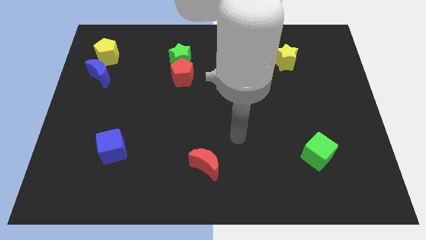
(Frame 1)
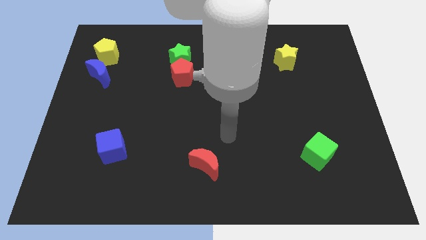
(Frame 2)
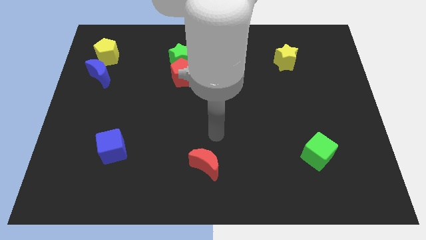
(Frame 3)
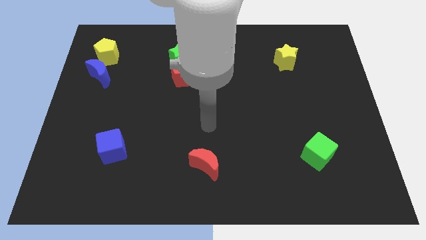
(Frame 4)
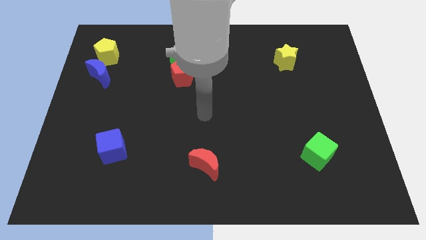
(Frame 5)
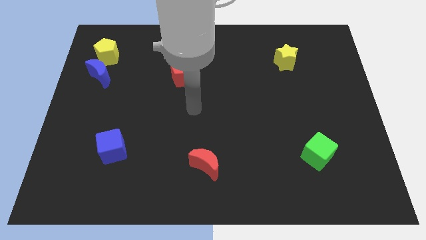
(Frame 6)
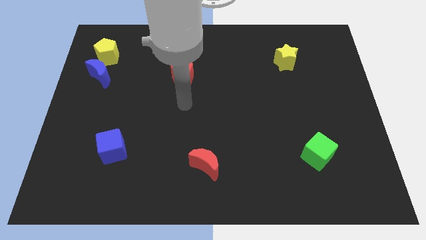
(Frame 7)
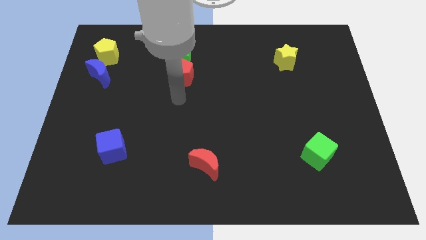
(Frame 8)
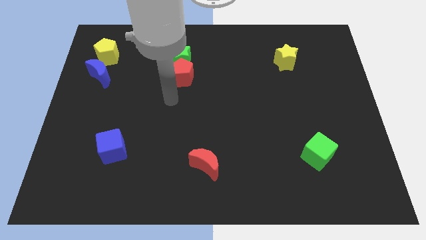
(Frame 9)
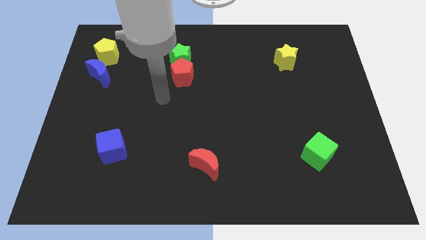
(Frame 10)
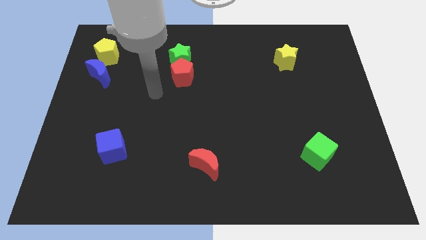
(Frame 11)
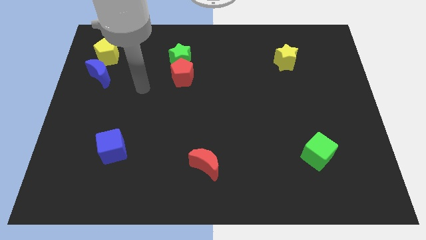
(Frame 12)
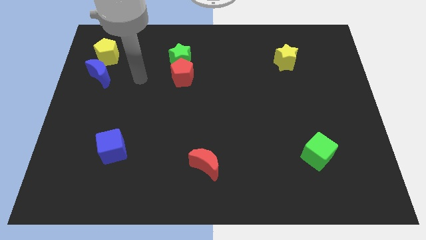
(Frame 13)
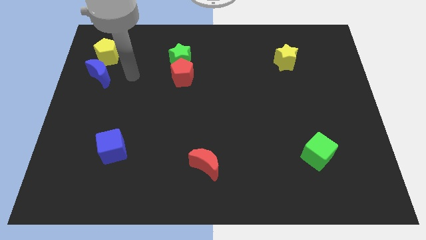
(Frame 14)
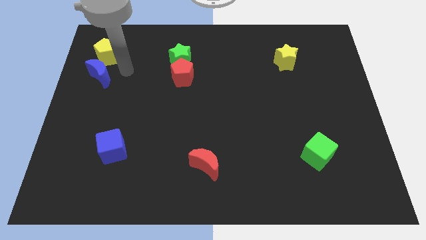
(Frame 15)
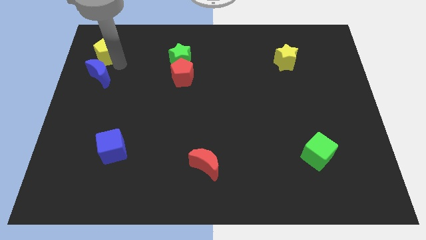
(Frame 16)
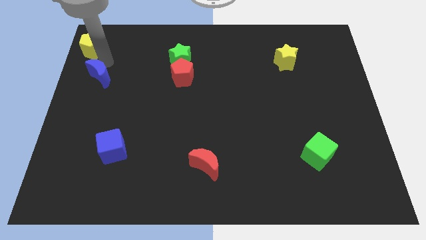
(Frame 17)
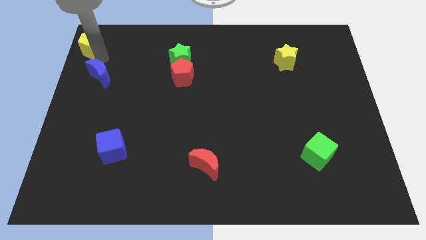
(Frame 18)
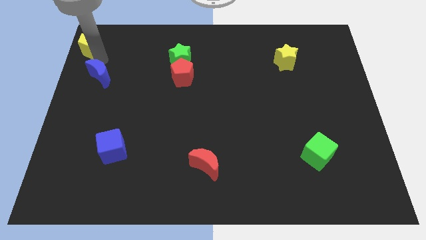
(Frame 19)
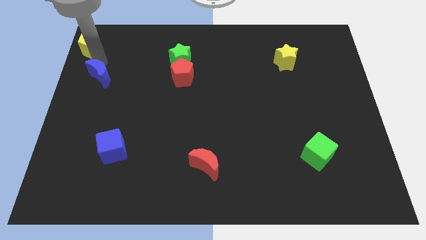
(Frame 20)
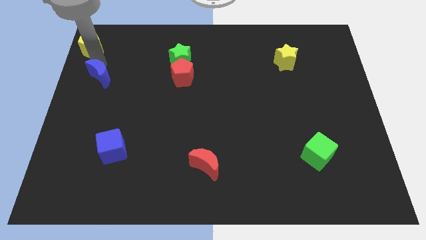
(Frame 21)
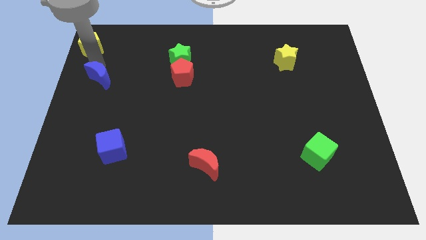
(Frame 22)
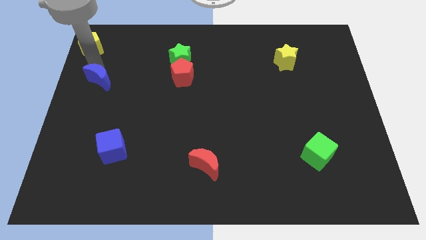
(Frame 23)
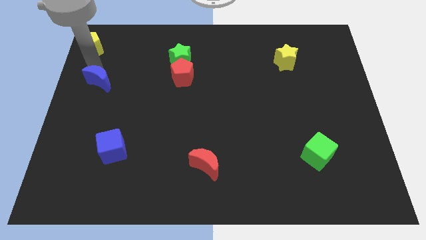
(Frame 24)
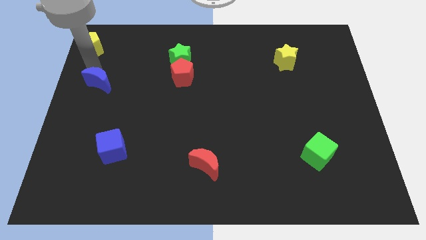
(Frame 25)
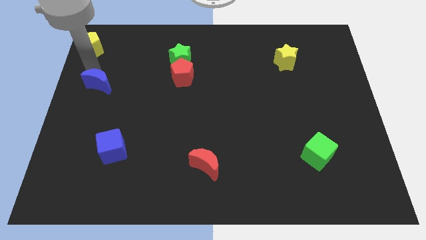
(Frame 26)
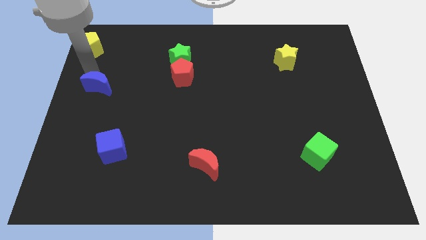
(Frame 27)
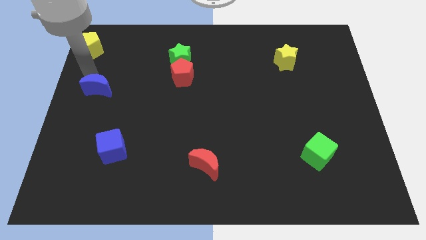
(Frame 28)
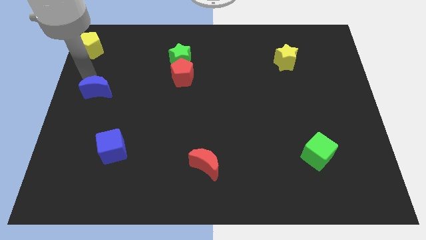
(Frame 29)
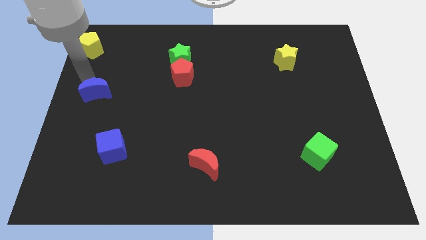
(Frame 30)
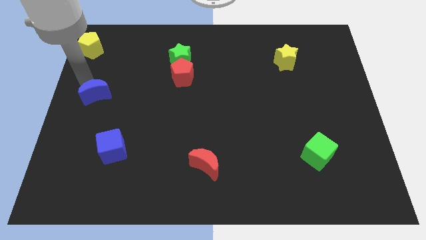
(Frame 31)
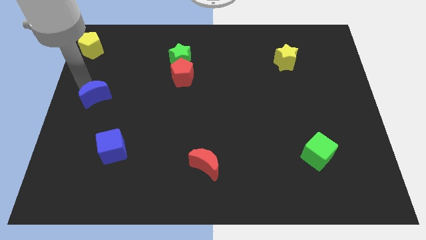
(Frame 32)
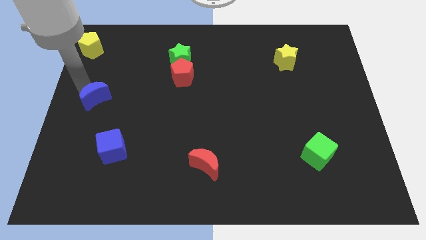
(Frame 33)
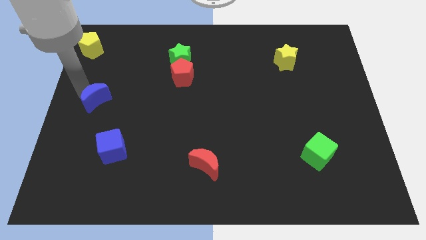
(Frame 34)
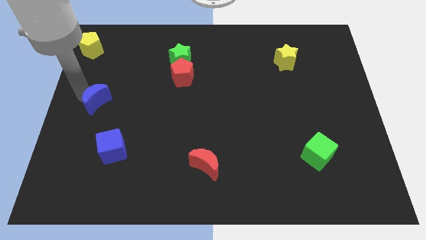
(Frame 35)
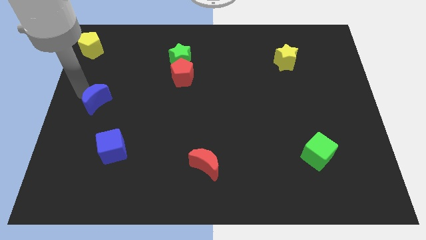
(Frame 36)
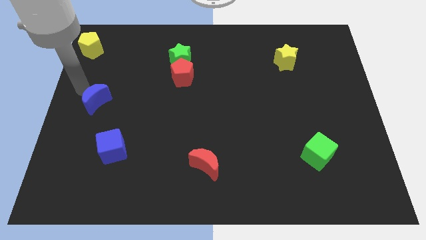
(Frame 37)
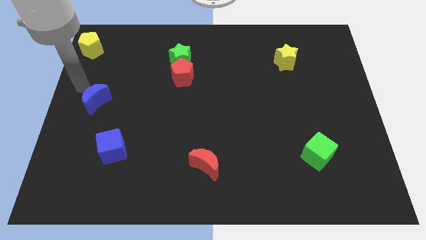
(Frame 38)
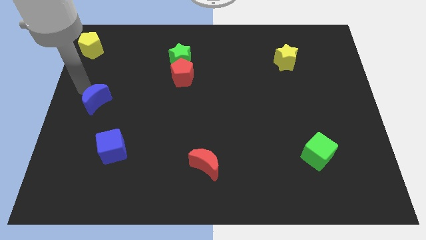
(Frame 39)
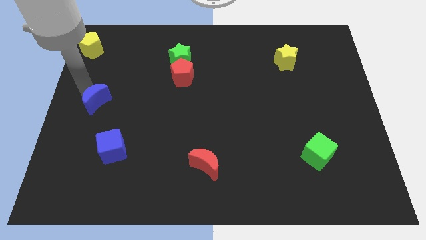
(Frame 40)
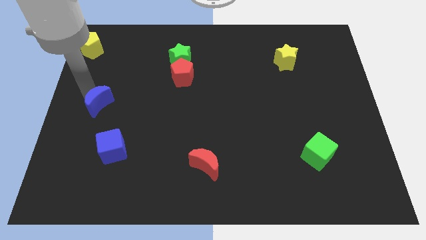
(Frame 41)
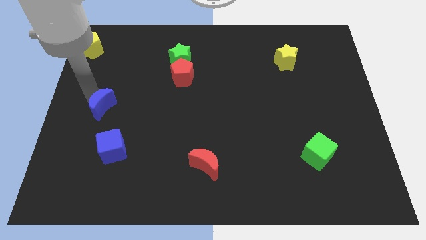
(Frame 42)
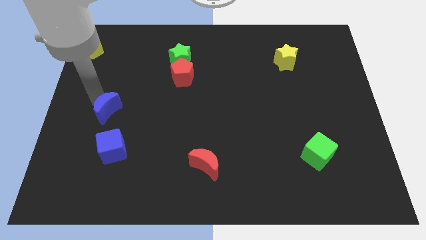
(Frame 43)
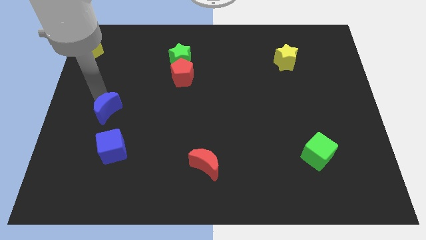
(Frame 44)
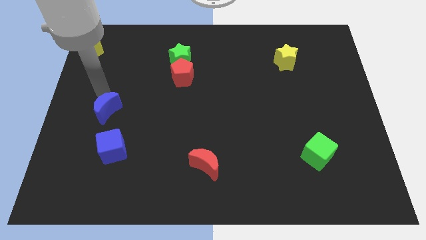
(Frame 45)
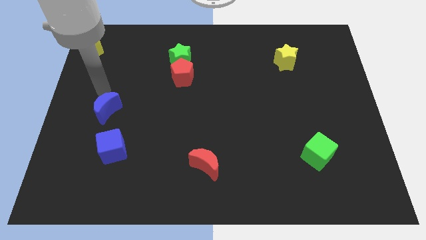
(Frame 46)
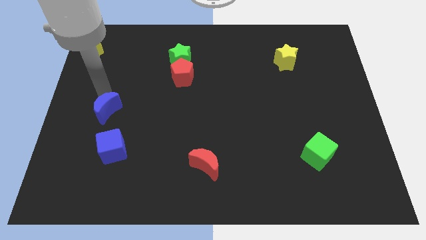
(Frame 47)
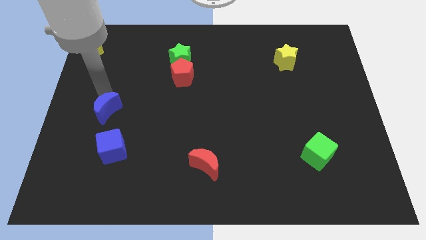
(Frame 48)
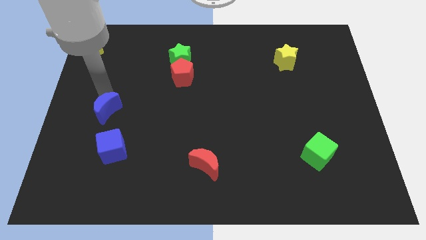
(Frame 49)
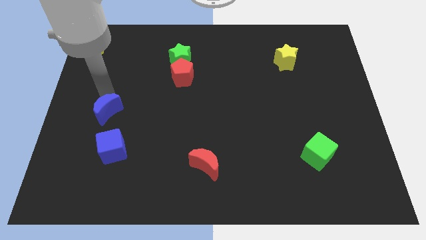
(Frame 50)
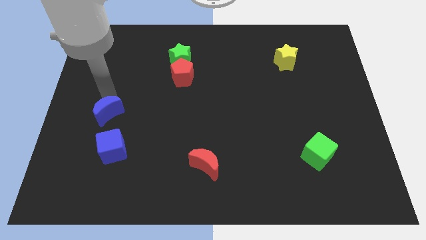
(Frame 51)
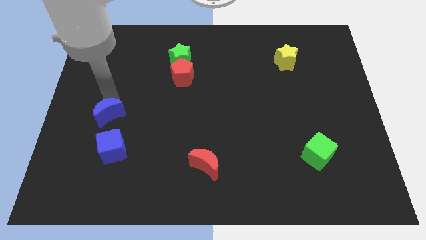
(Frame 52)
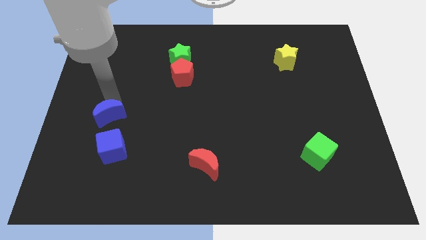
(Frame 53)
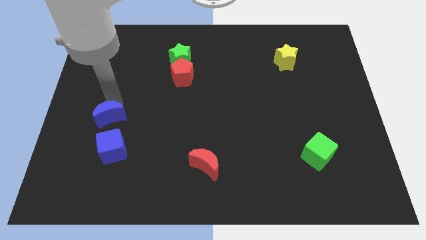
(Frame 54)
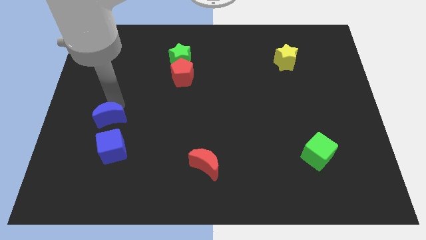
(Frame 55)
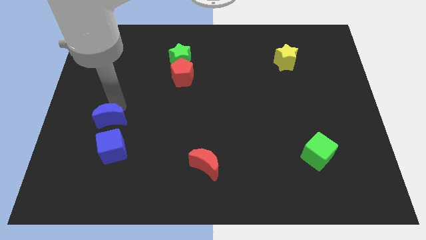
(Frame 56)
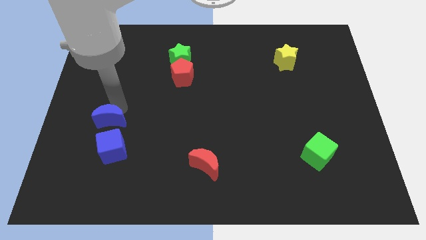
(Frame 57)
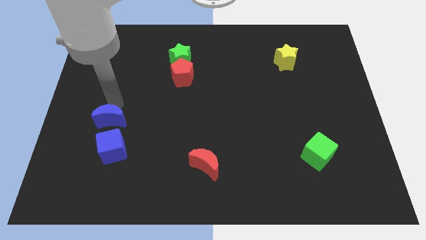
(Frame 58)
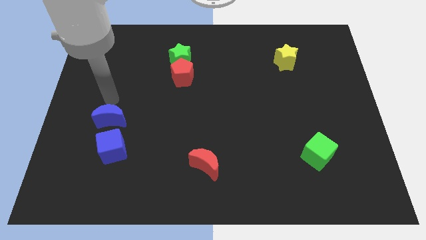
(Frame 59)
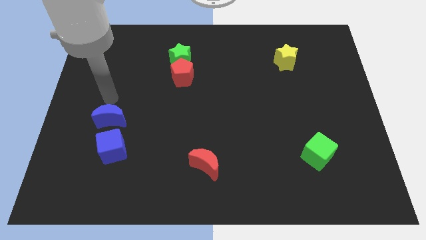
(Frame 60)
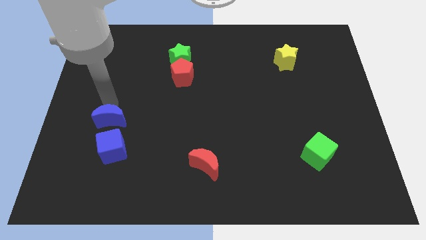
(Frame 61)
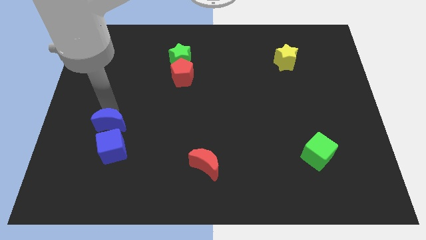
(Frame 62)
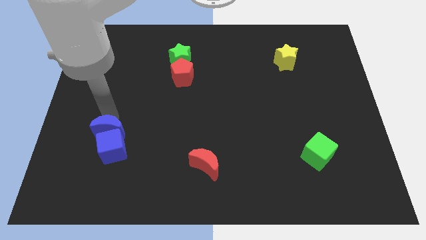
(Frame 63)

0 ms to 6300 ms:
slide the blue moon to the blue cube

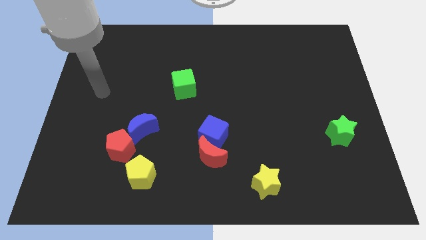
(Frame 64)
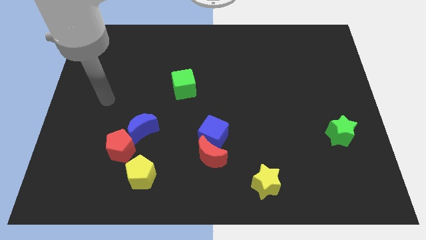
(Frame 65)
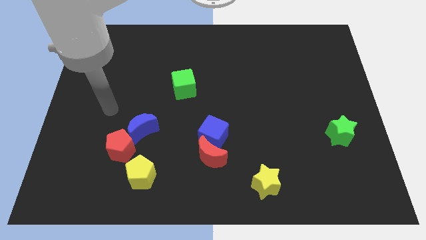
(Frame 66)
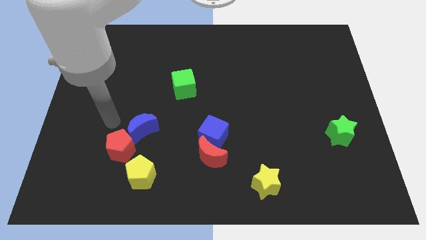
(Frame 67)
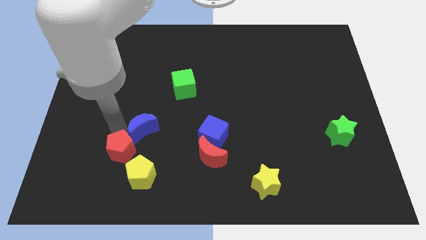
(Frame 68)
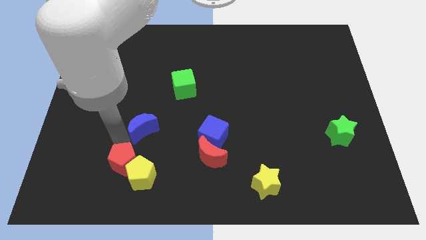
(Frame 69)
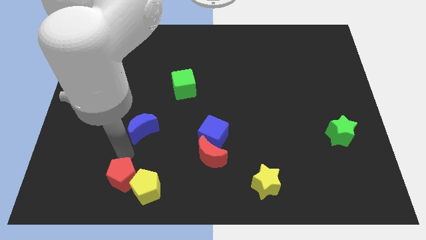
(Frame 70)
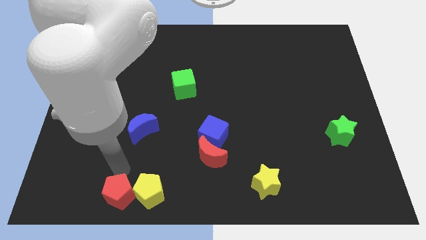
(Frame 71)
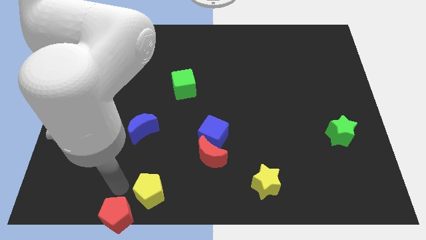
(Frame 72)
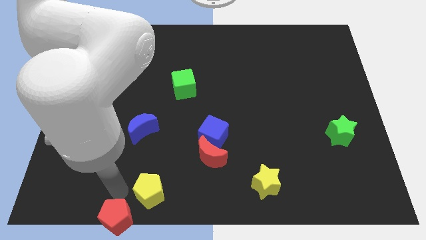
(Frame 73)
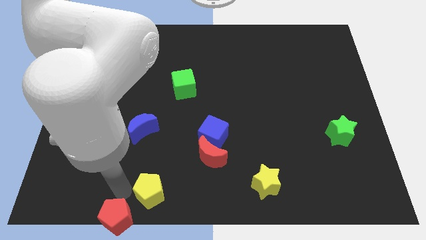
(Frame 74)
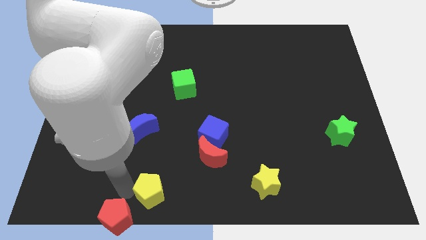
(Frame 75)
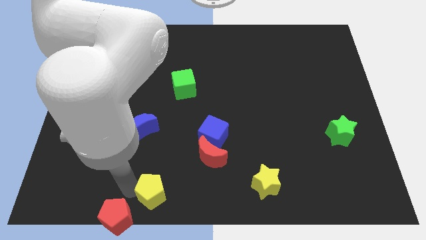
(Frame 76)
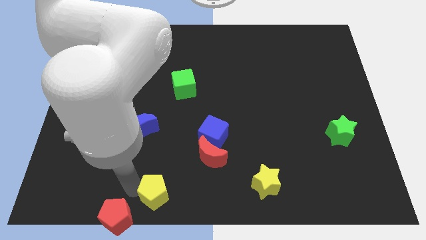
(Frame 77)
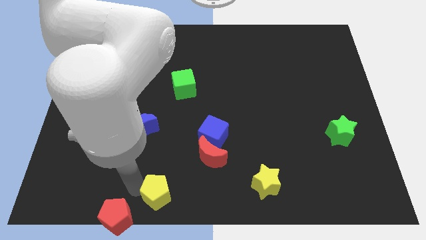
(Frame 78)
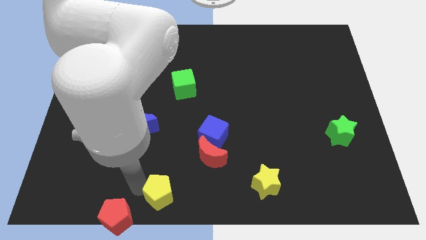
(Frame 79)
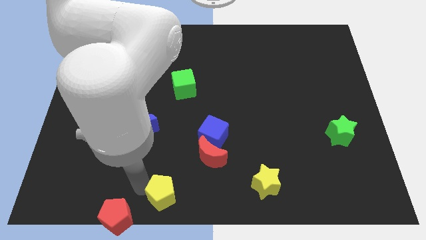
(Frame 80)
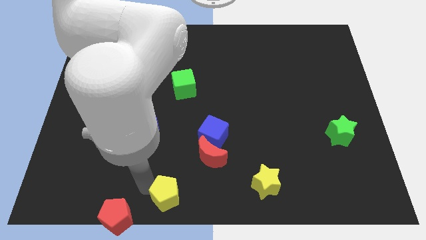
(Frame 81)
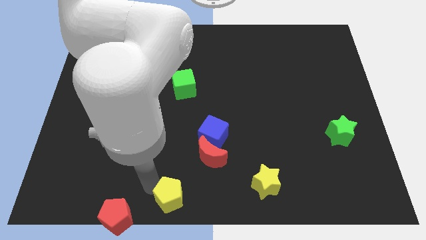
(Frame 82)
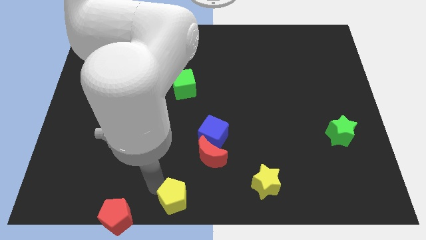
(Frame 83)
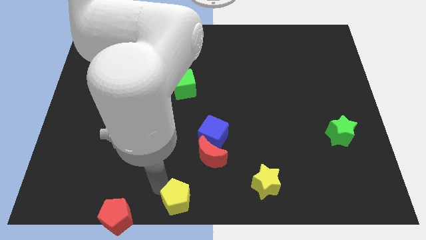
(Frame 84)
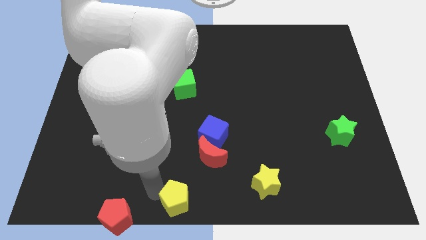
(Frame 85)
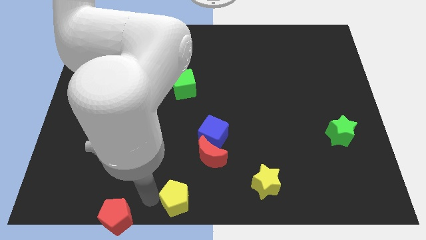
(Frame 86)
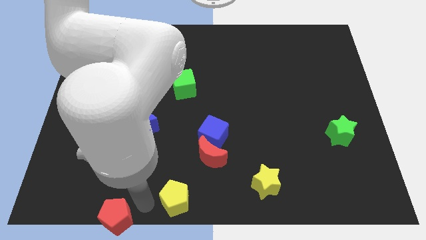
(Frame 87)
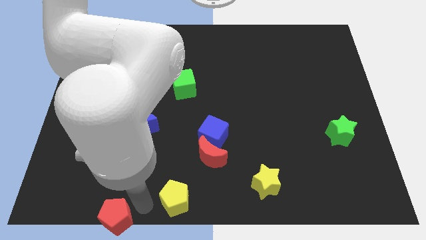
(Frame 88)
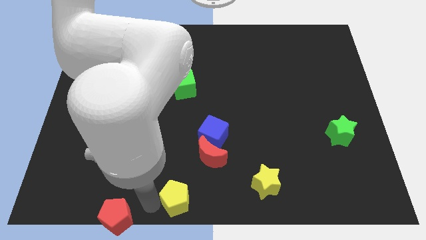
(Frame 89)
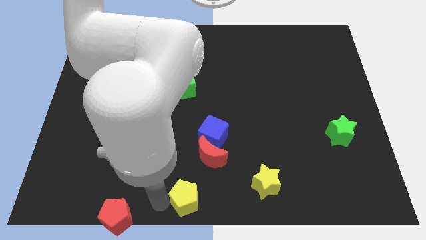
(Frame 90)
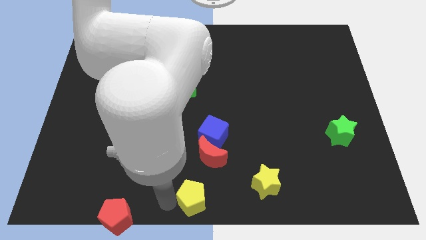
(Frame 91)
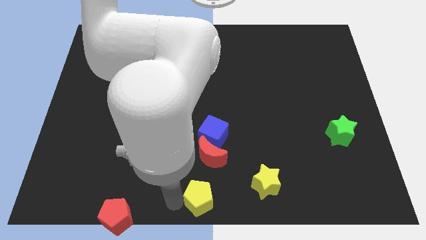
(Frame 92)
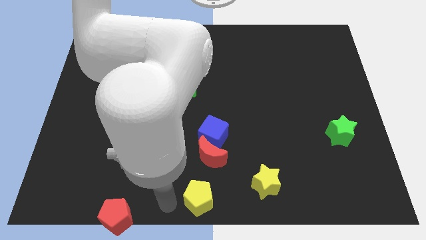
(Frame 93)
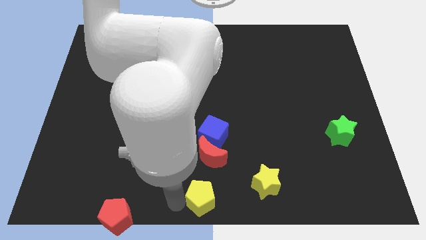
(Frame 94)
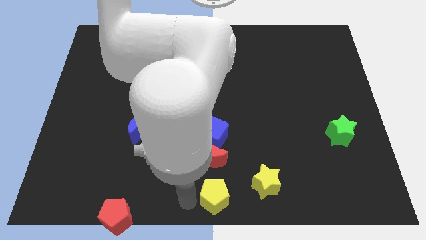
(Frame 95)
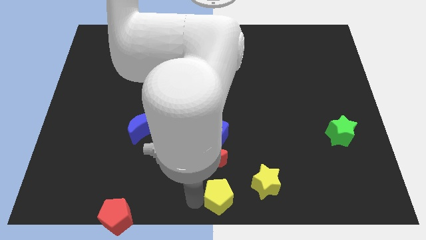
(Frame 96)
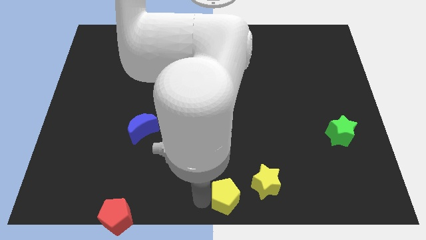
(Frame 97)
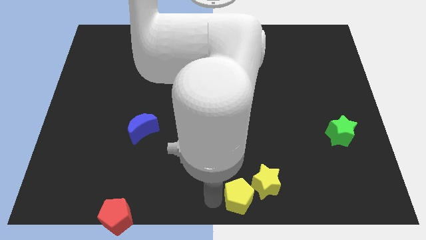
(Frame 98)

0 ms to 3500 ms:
move the yellow pentagon next to the yellow star
